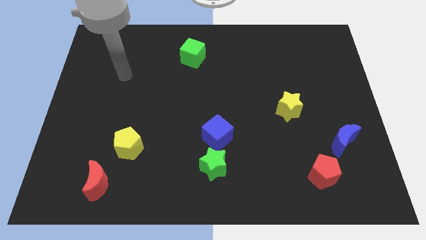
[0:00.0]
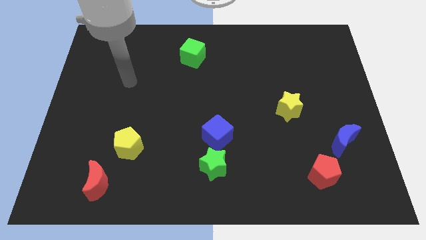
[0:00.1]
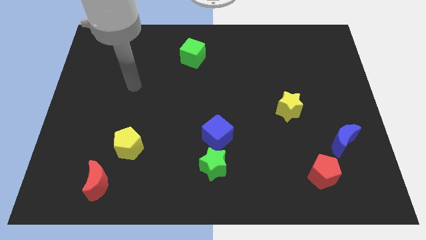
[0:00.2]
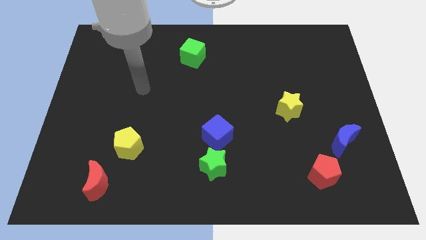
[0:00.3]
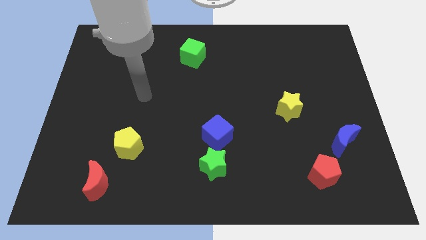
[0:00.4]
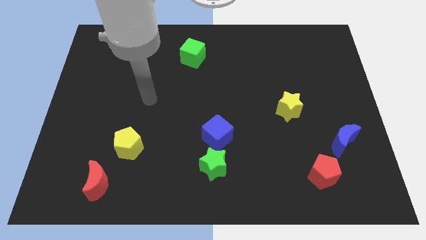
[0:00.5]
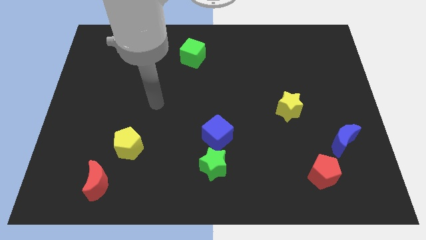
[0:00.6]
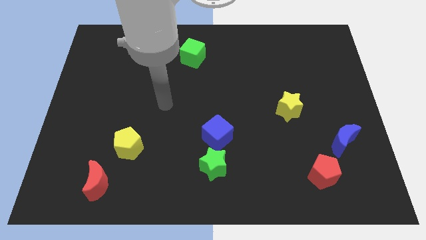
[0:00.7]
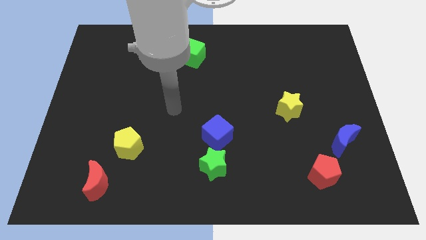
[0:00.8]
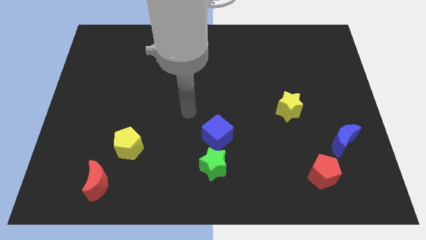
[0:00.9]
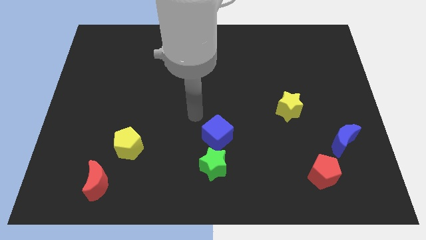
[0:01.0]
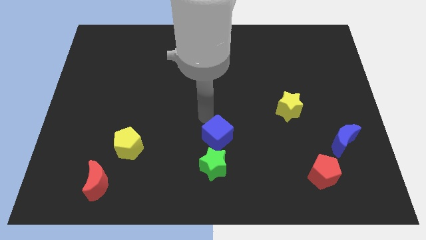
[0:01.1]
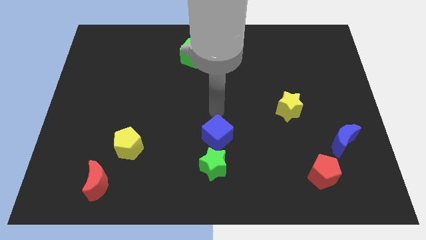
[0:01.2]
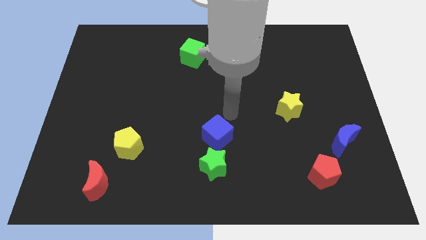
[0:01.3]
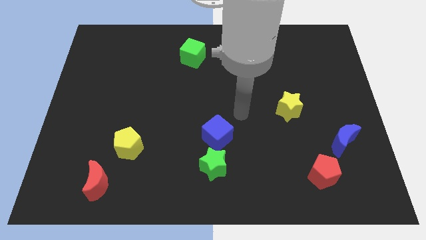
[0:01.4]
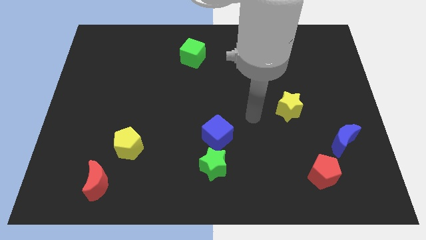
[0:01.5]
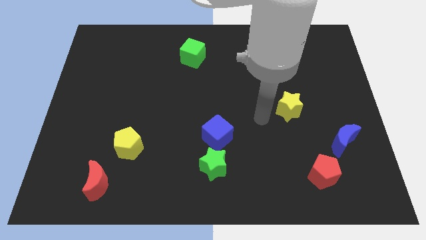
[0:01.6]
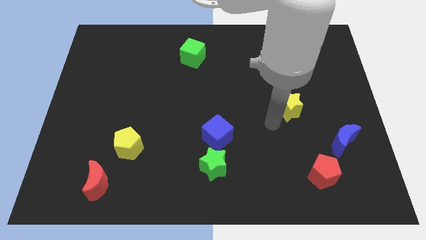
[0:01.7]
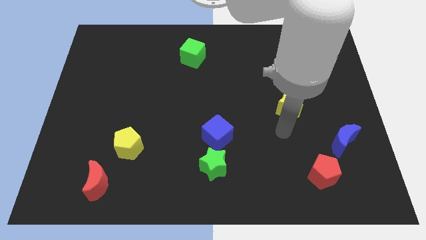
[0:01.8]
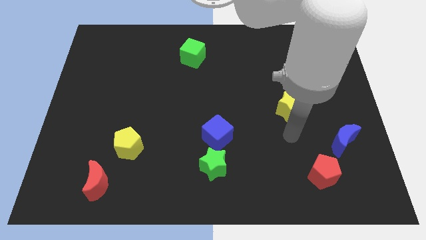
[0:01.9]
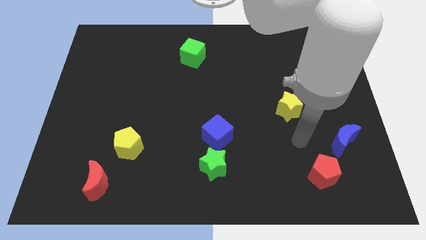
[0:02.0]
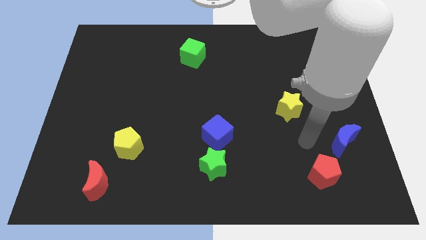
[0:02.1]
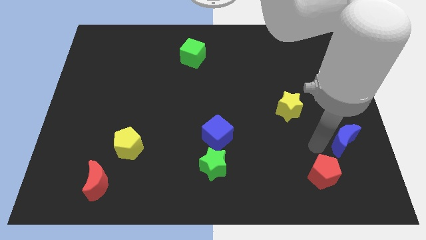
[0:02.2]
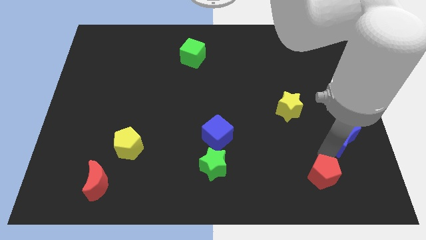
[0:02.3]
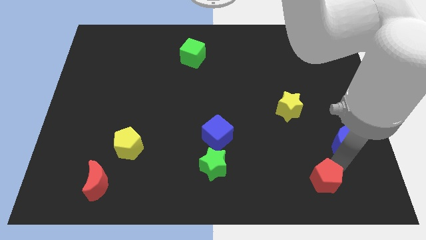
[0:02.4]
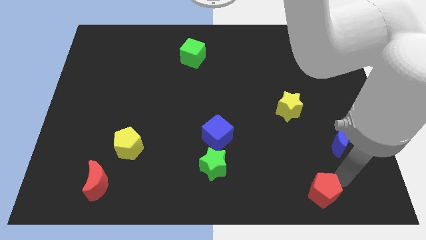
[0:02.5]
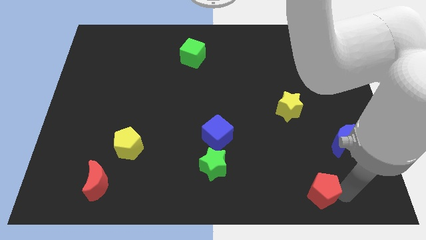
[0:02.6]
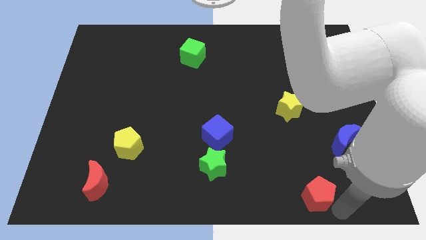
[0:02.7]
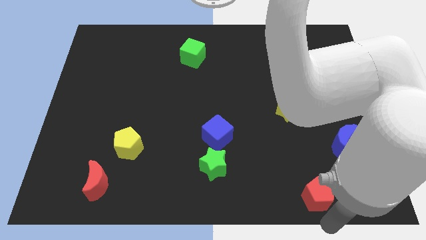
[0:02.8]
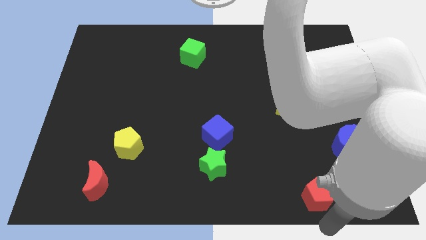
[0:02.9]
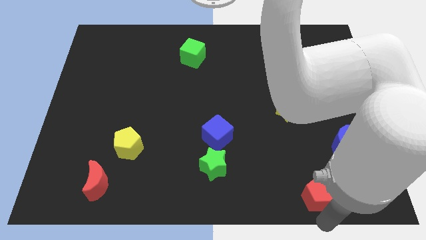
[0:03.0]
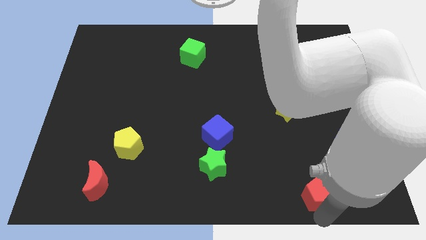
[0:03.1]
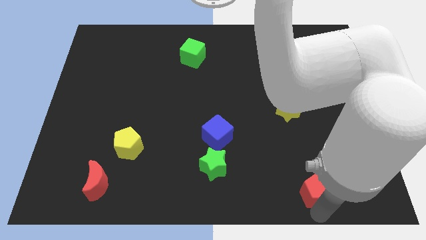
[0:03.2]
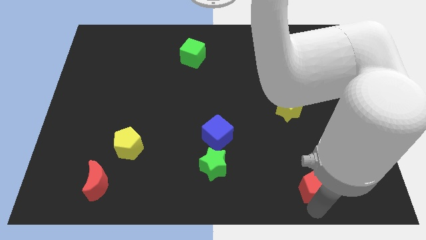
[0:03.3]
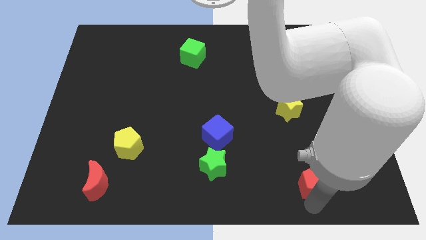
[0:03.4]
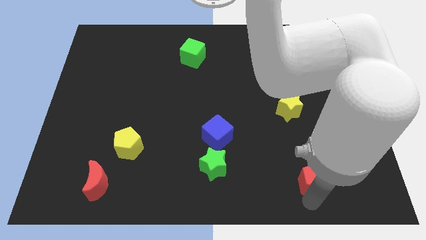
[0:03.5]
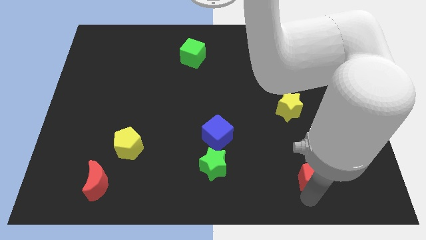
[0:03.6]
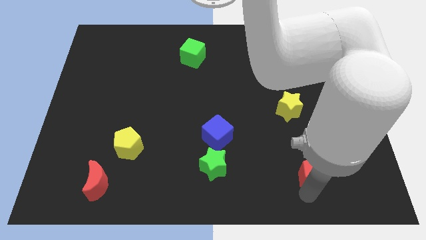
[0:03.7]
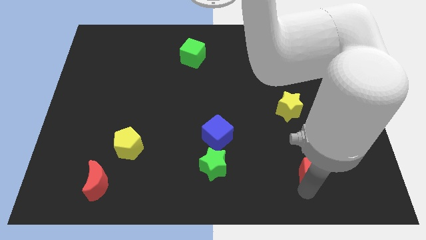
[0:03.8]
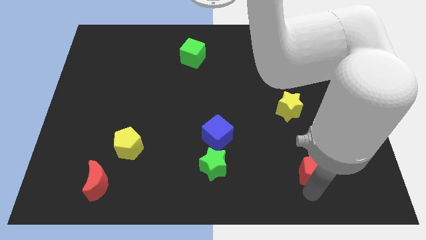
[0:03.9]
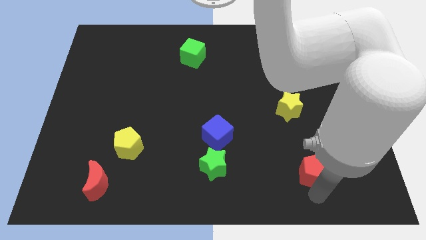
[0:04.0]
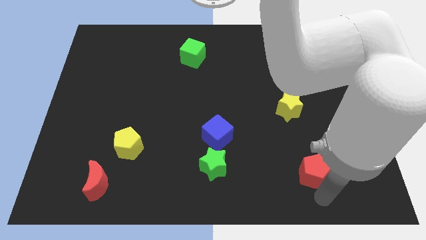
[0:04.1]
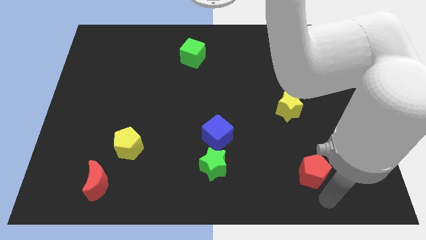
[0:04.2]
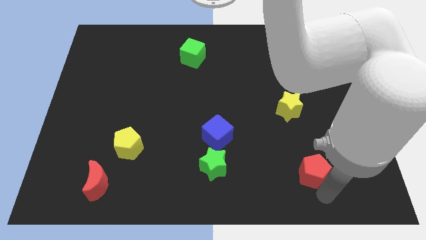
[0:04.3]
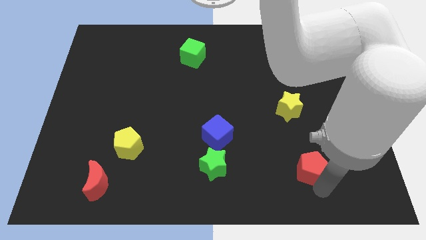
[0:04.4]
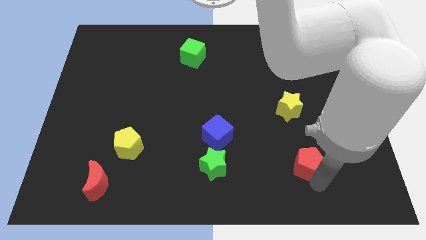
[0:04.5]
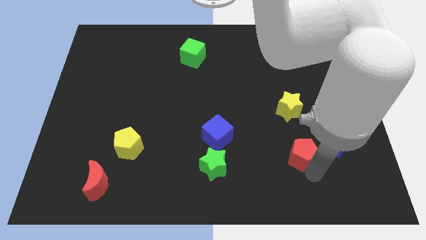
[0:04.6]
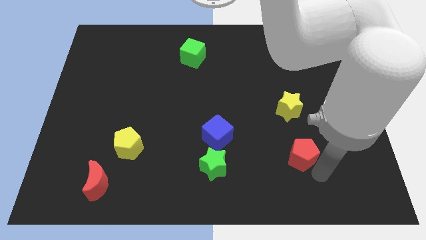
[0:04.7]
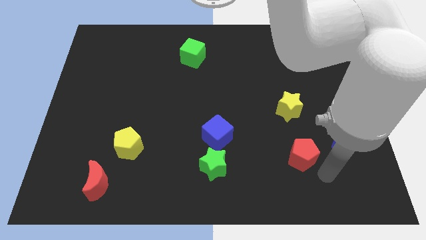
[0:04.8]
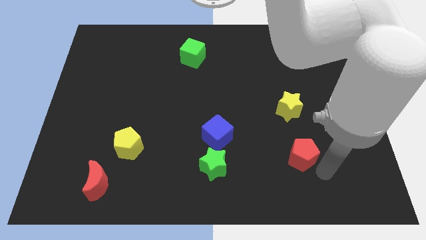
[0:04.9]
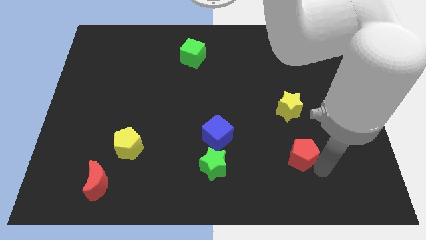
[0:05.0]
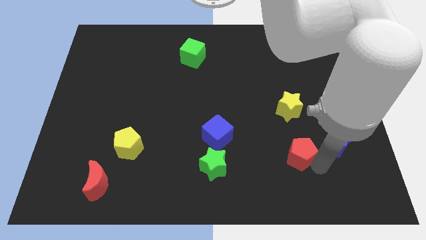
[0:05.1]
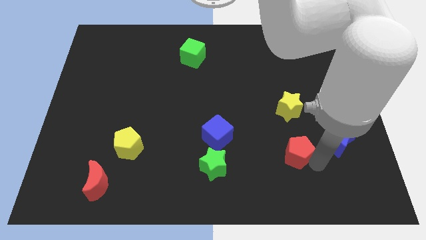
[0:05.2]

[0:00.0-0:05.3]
slide the red pentagon upwards and left a little bit

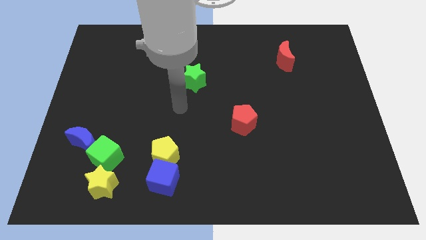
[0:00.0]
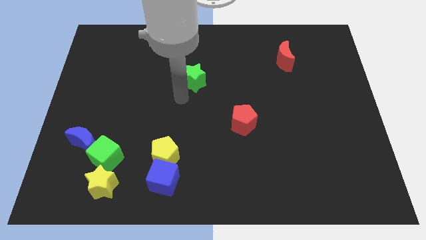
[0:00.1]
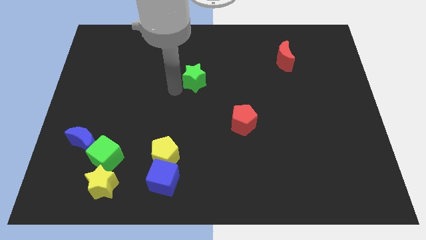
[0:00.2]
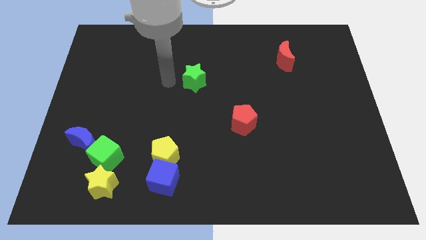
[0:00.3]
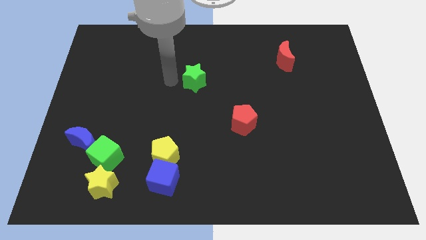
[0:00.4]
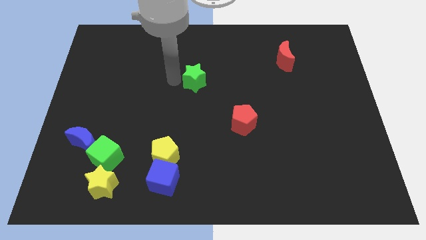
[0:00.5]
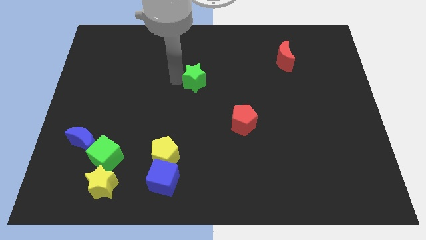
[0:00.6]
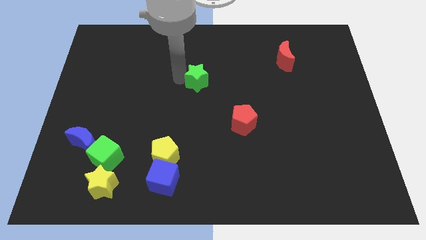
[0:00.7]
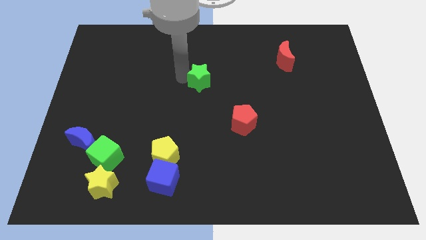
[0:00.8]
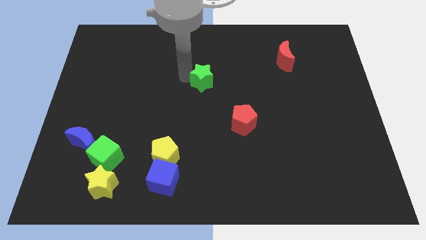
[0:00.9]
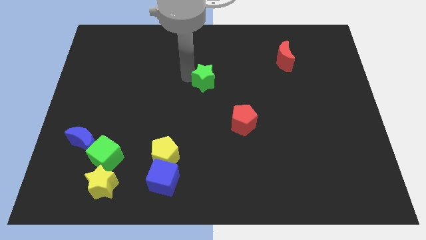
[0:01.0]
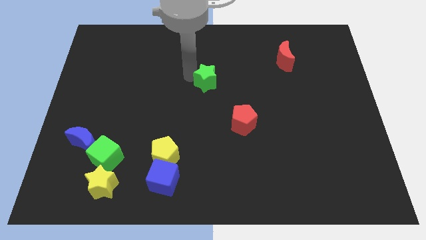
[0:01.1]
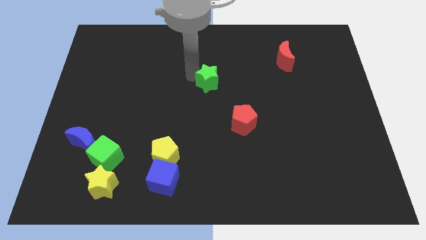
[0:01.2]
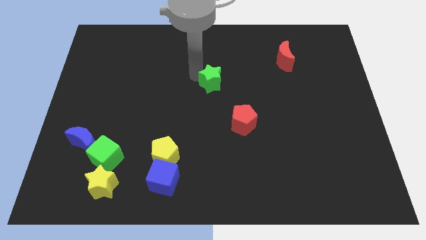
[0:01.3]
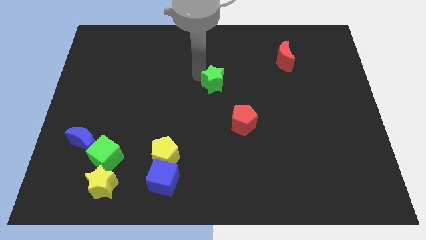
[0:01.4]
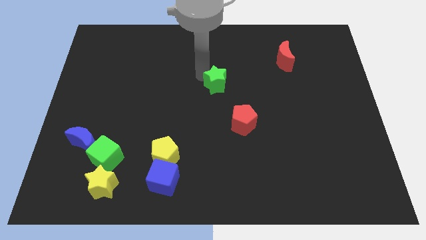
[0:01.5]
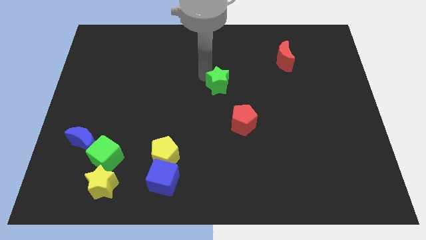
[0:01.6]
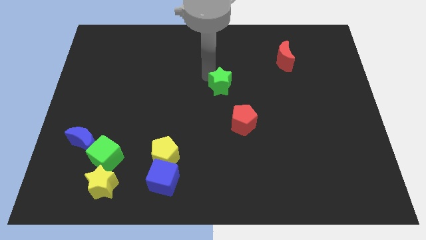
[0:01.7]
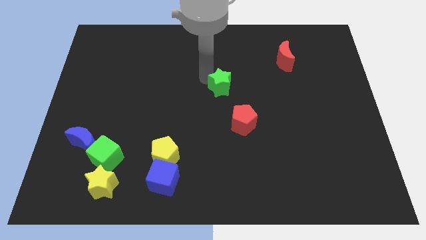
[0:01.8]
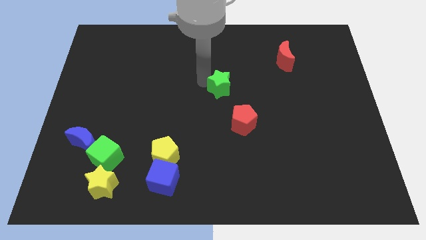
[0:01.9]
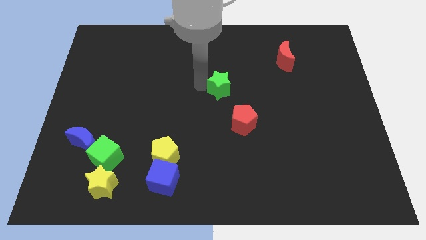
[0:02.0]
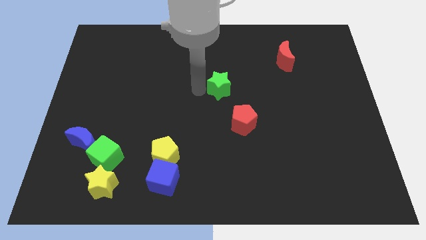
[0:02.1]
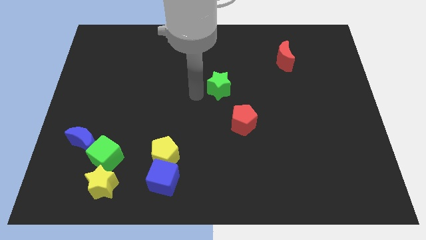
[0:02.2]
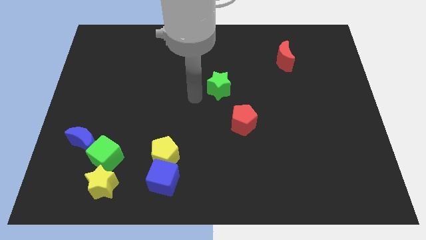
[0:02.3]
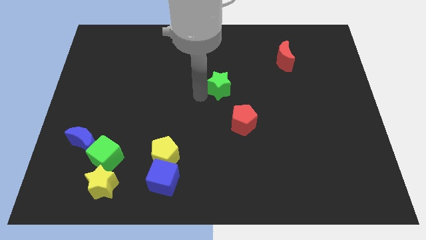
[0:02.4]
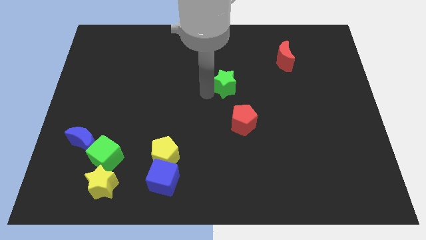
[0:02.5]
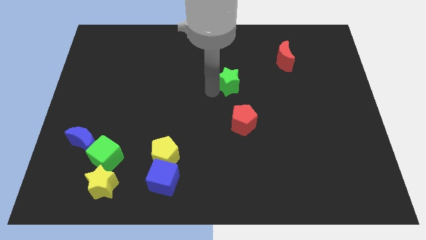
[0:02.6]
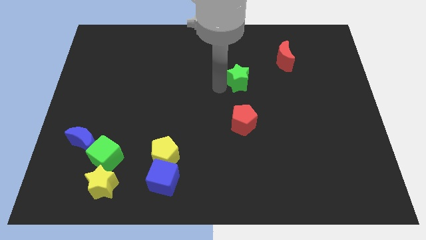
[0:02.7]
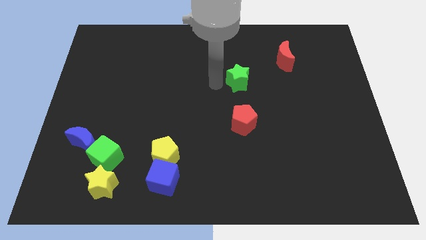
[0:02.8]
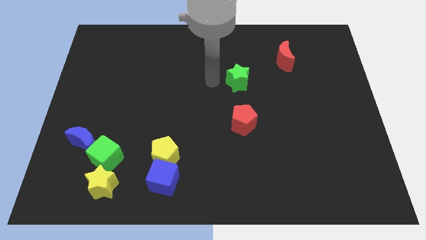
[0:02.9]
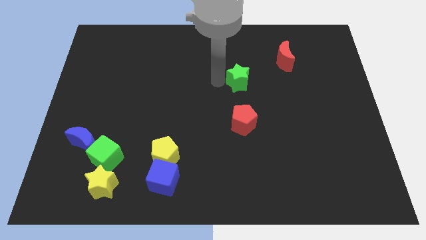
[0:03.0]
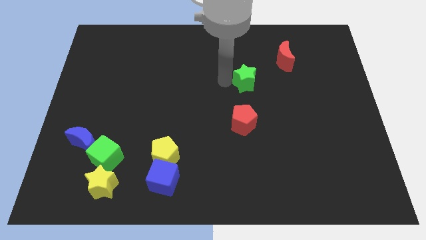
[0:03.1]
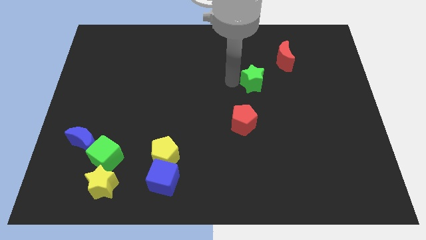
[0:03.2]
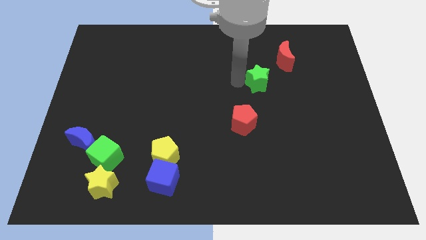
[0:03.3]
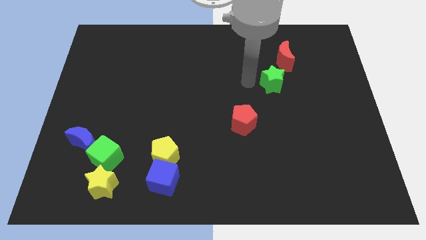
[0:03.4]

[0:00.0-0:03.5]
slide the green star to the right
